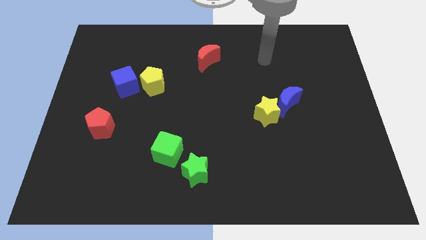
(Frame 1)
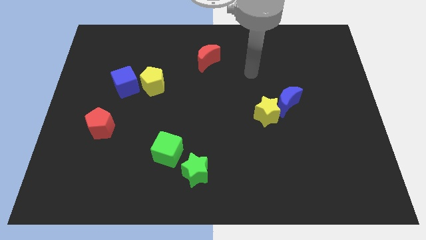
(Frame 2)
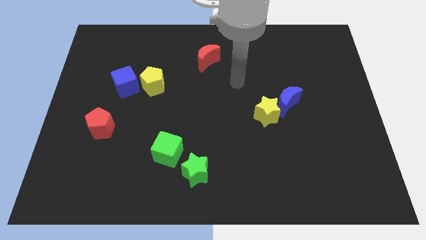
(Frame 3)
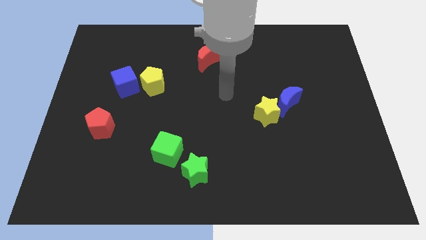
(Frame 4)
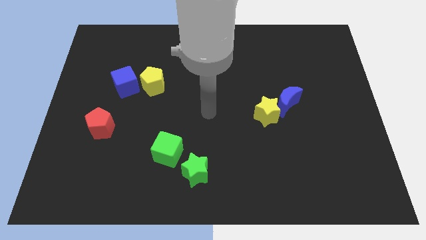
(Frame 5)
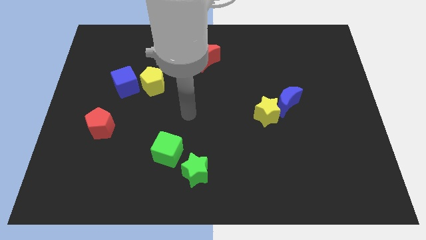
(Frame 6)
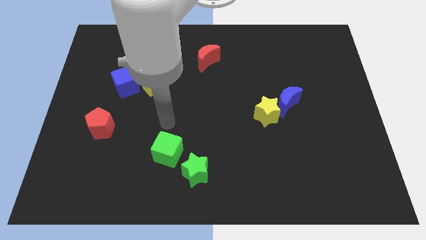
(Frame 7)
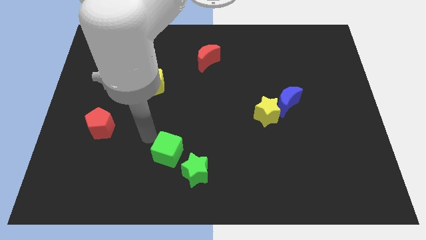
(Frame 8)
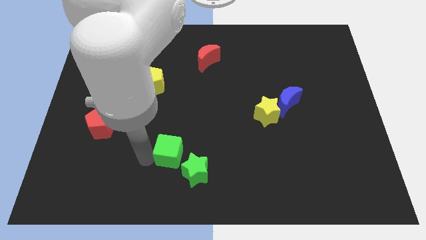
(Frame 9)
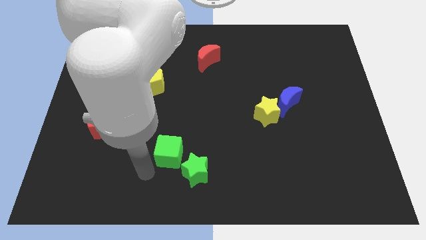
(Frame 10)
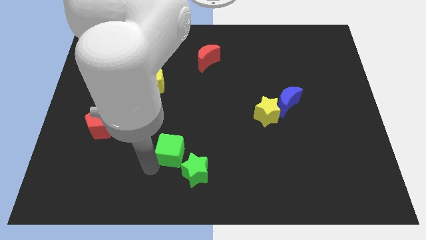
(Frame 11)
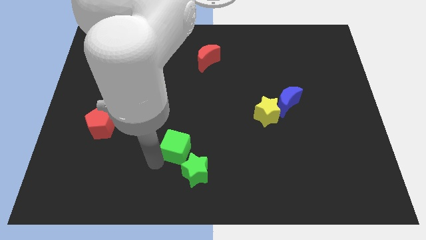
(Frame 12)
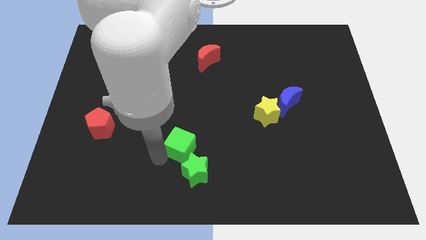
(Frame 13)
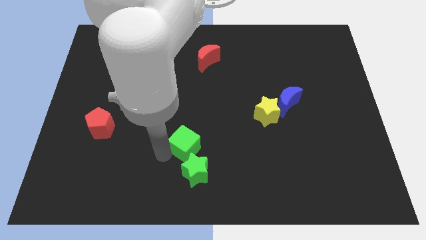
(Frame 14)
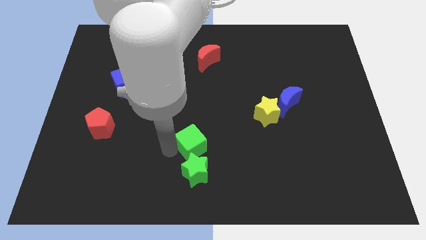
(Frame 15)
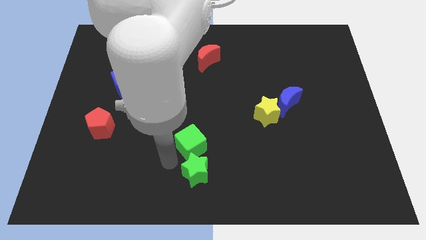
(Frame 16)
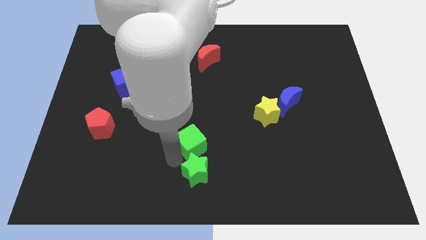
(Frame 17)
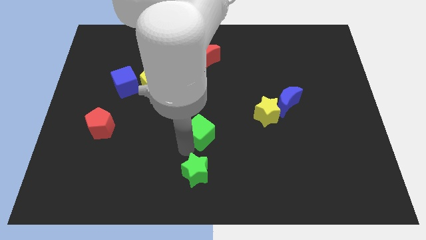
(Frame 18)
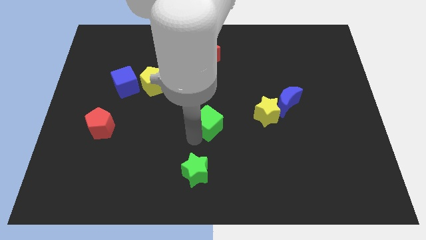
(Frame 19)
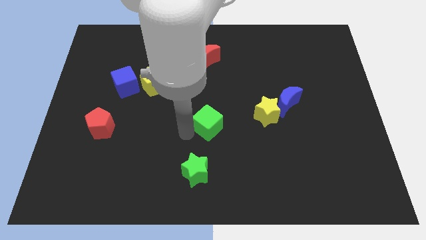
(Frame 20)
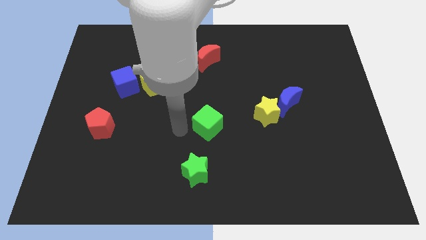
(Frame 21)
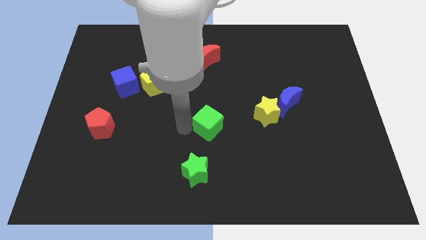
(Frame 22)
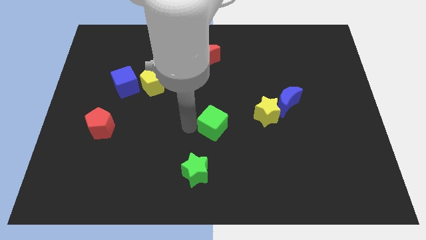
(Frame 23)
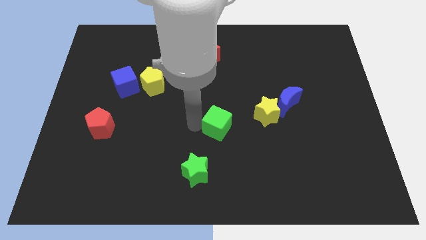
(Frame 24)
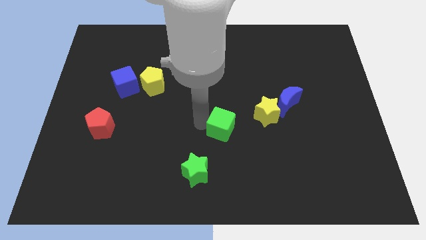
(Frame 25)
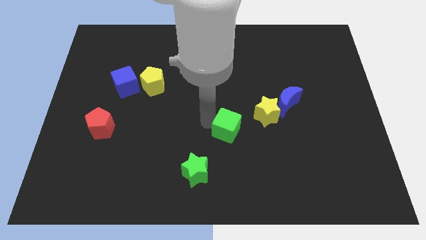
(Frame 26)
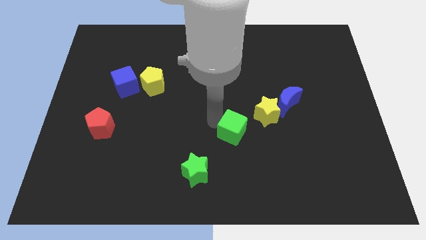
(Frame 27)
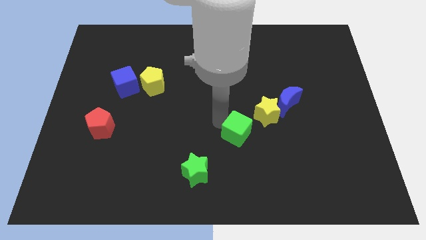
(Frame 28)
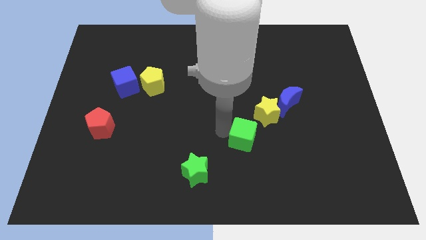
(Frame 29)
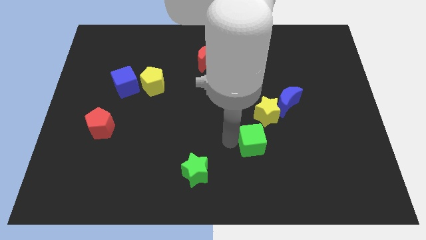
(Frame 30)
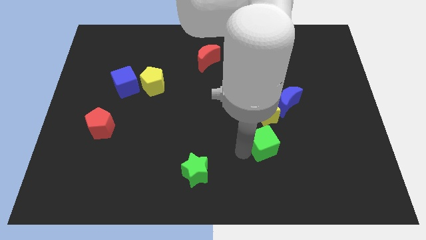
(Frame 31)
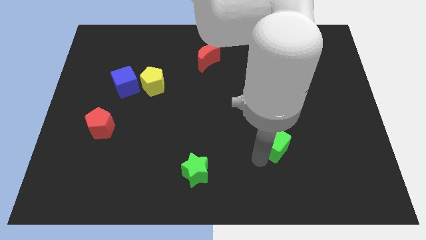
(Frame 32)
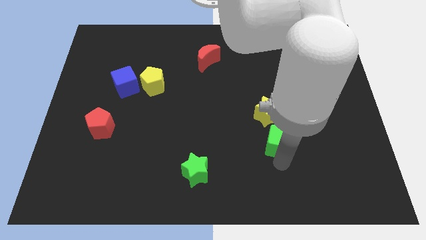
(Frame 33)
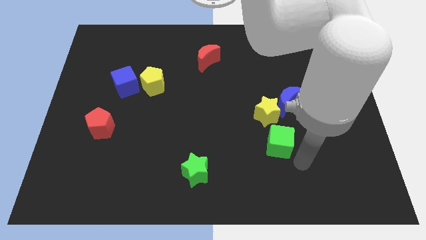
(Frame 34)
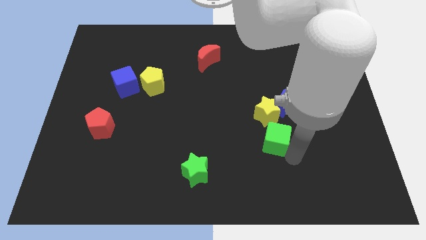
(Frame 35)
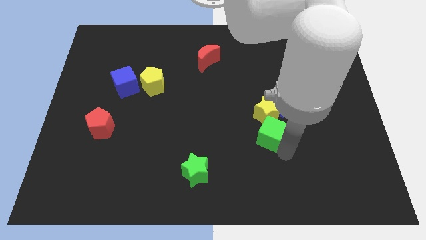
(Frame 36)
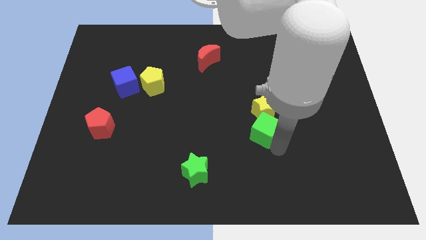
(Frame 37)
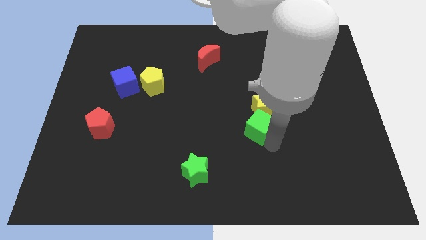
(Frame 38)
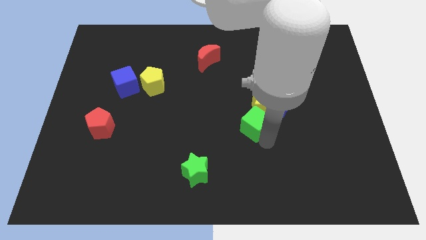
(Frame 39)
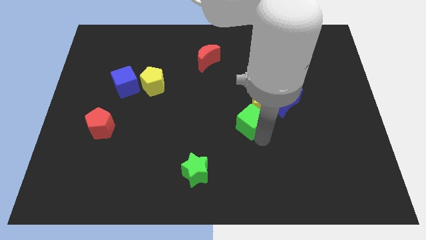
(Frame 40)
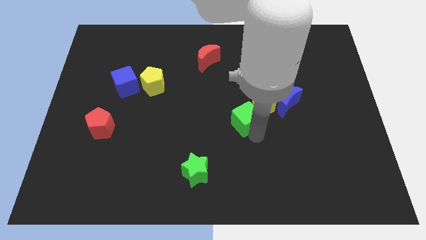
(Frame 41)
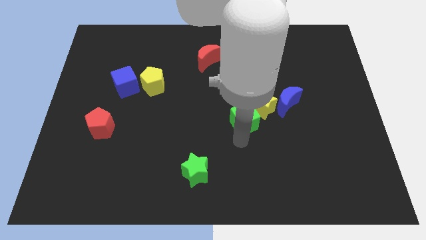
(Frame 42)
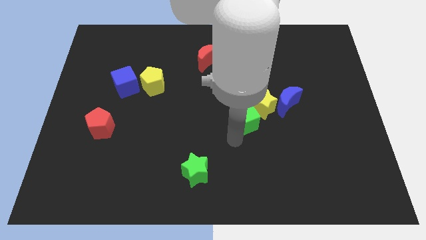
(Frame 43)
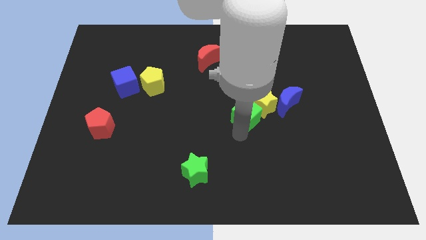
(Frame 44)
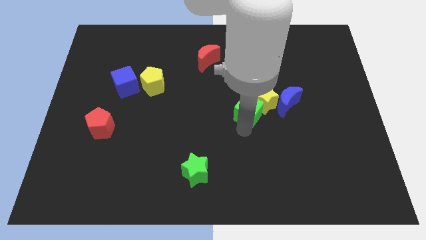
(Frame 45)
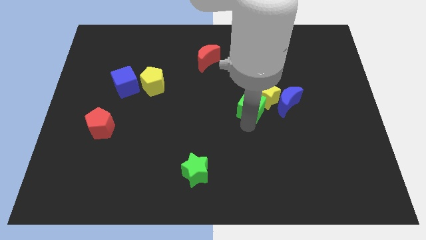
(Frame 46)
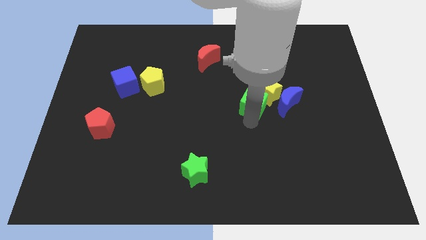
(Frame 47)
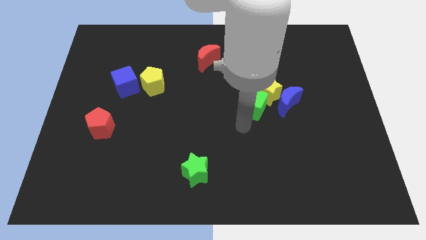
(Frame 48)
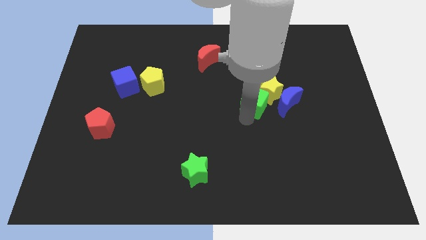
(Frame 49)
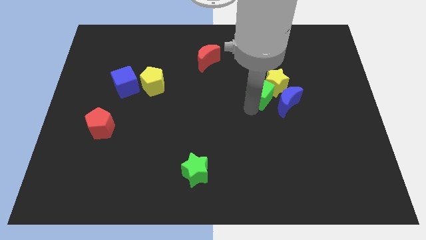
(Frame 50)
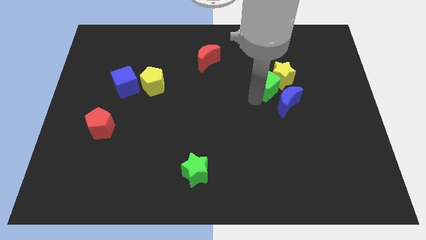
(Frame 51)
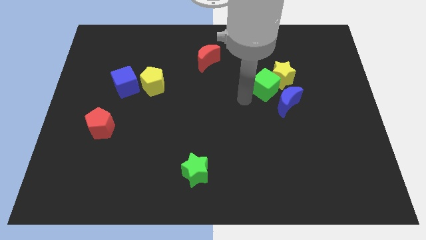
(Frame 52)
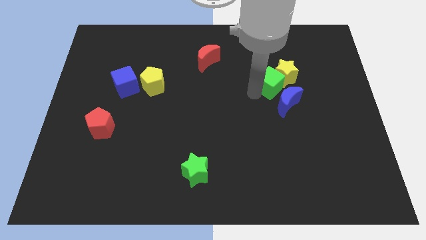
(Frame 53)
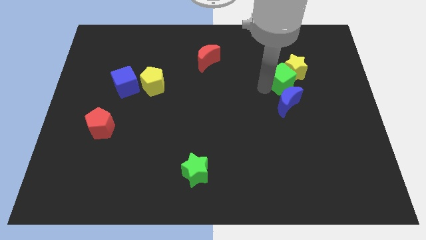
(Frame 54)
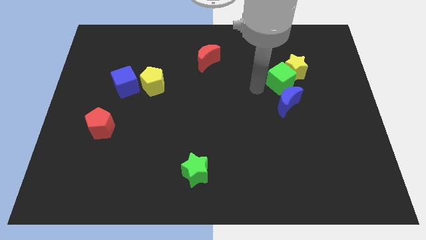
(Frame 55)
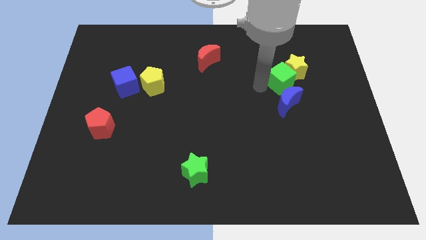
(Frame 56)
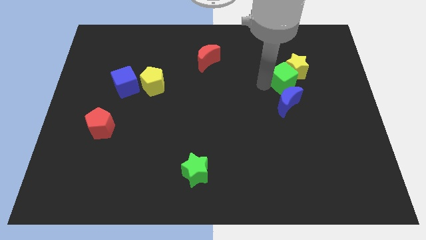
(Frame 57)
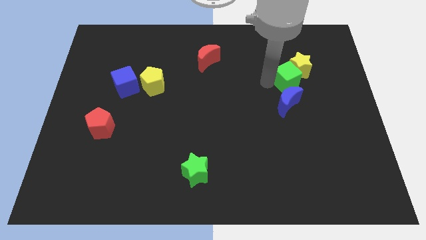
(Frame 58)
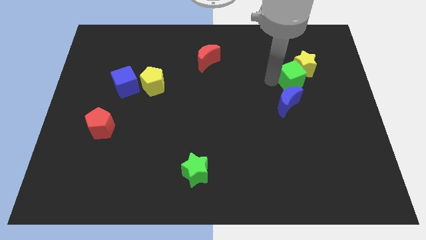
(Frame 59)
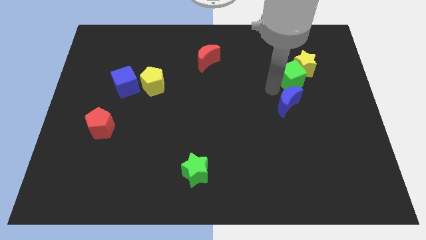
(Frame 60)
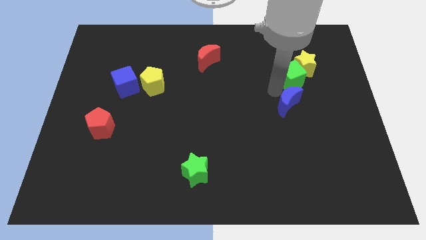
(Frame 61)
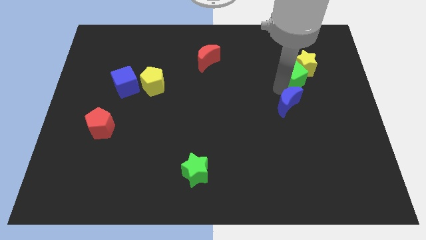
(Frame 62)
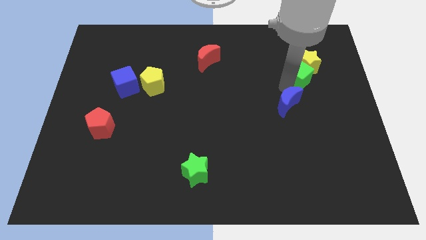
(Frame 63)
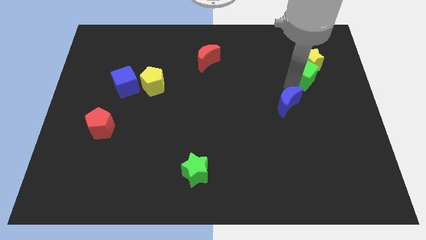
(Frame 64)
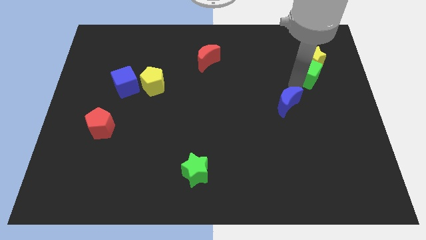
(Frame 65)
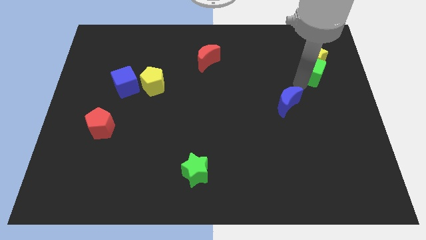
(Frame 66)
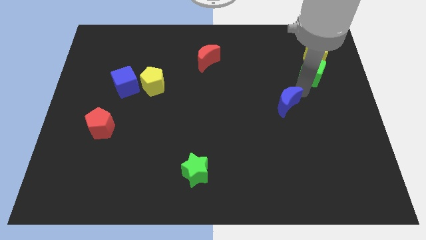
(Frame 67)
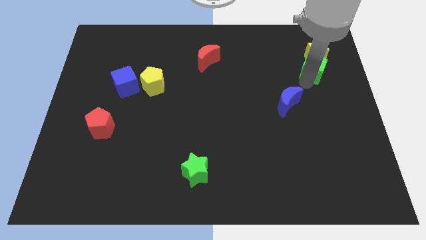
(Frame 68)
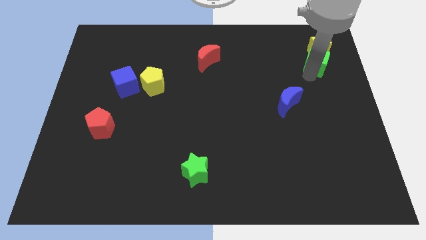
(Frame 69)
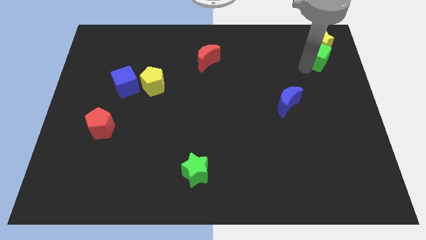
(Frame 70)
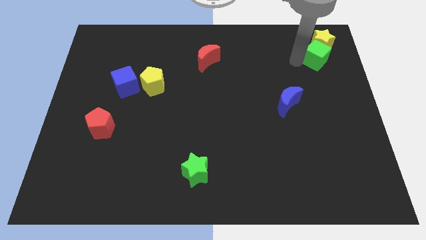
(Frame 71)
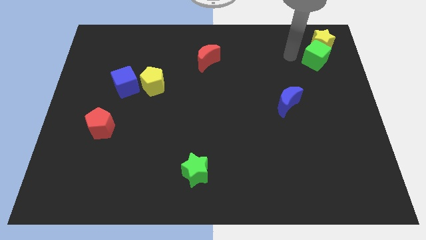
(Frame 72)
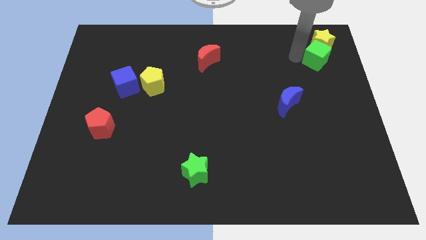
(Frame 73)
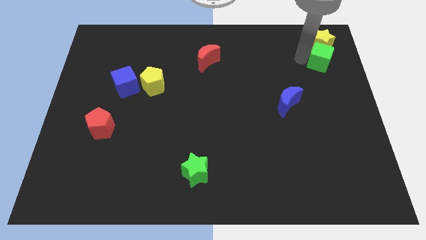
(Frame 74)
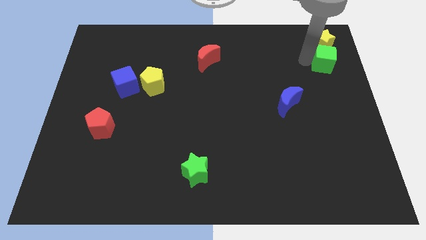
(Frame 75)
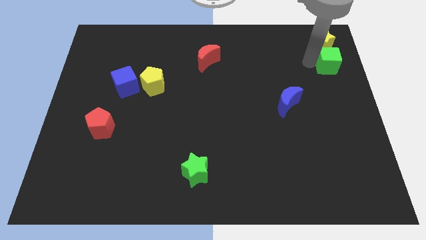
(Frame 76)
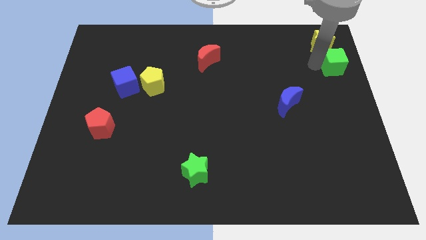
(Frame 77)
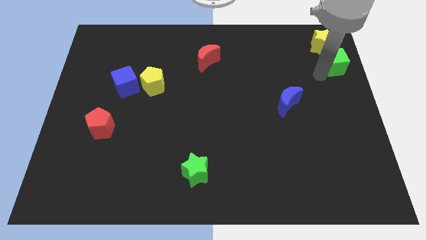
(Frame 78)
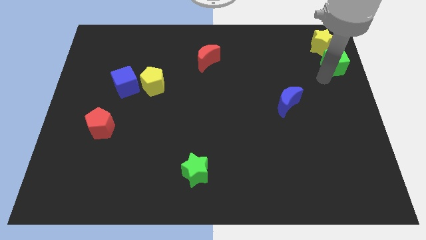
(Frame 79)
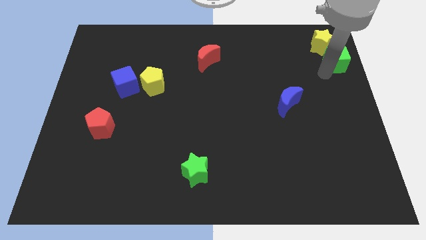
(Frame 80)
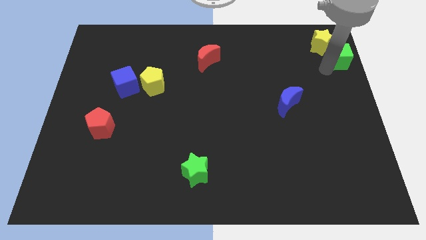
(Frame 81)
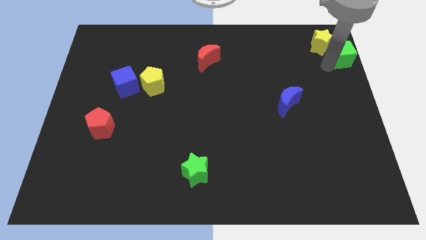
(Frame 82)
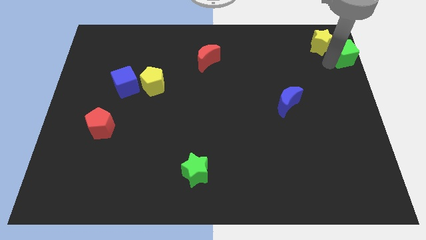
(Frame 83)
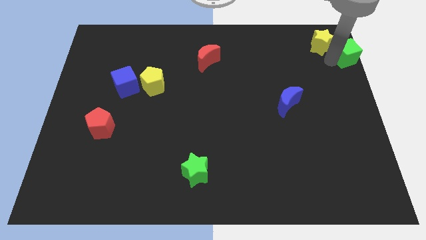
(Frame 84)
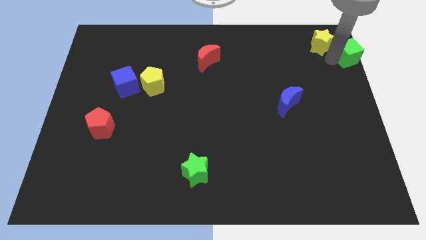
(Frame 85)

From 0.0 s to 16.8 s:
slide the green cube to the top right of the board
